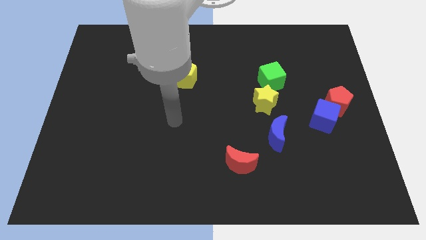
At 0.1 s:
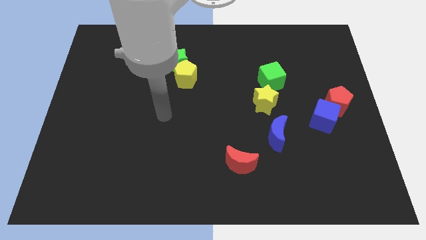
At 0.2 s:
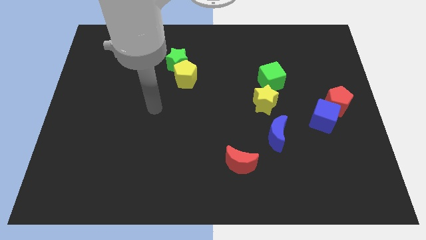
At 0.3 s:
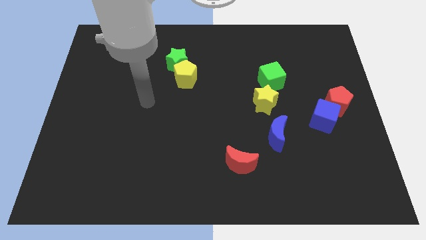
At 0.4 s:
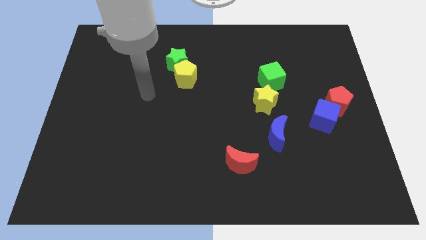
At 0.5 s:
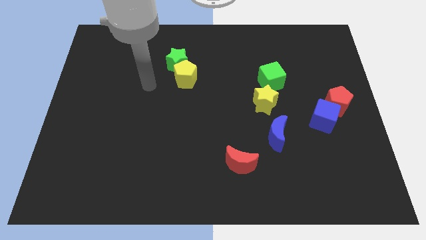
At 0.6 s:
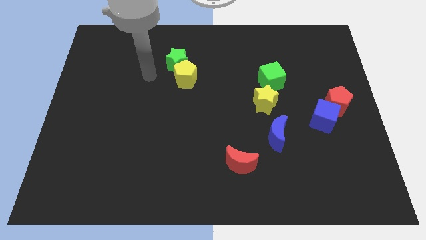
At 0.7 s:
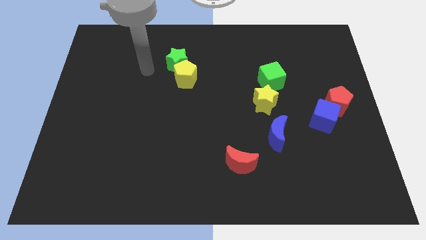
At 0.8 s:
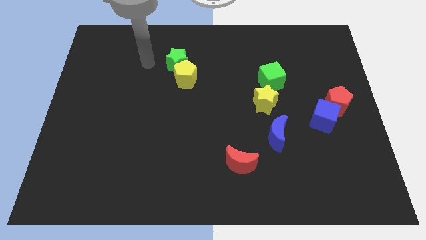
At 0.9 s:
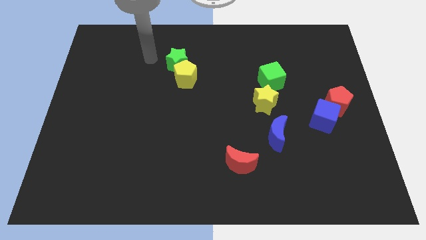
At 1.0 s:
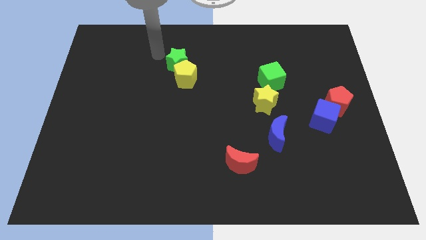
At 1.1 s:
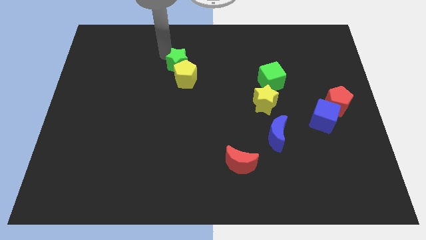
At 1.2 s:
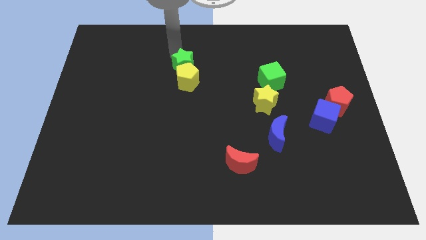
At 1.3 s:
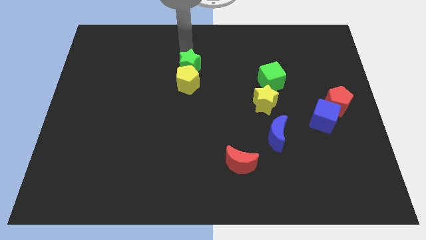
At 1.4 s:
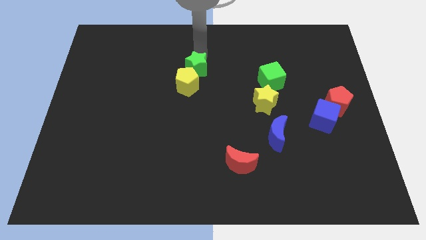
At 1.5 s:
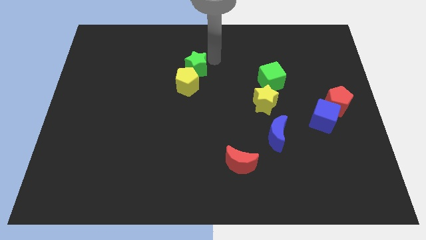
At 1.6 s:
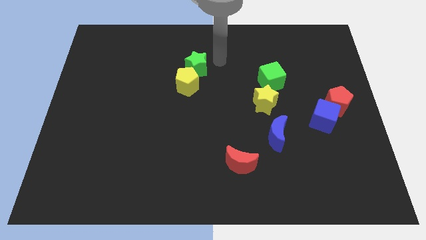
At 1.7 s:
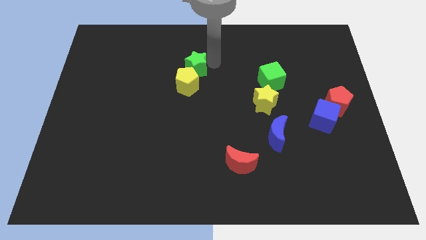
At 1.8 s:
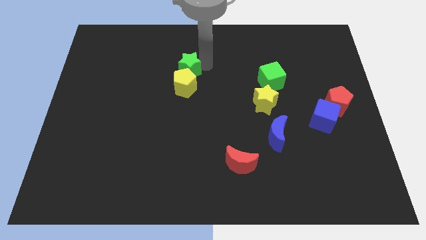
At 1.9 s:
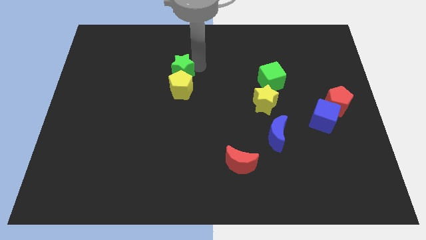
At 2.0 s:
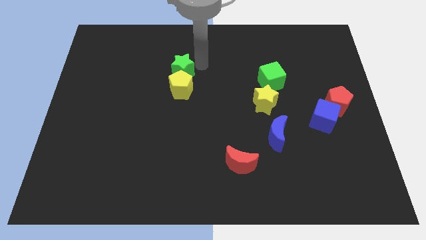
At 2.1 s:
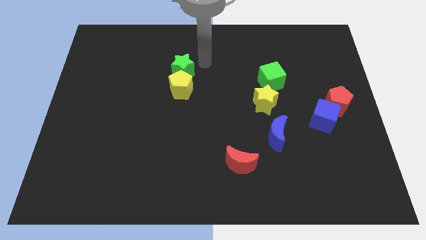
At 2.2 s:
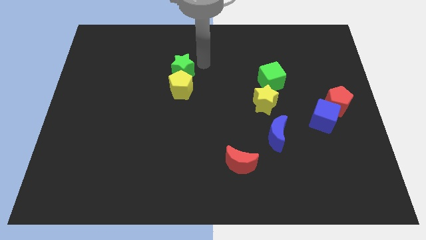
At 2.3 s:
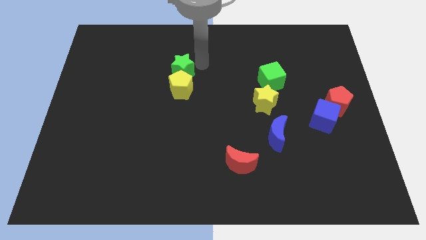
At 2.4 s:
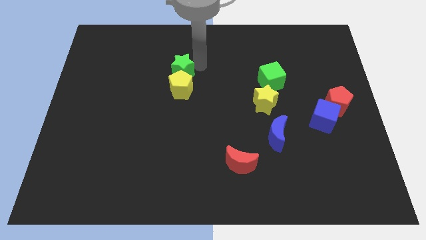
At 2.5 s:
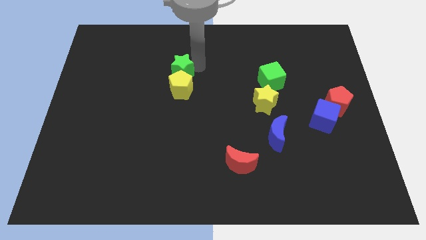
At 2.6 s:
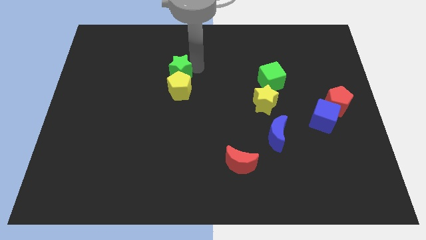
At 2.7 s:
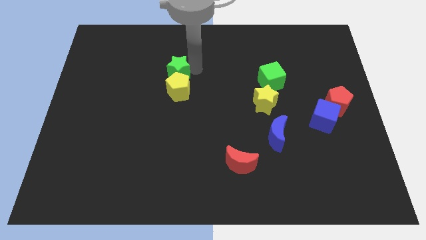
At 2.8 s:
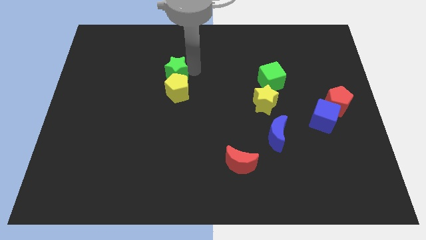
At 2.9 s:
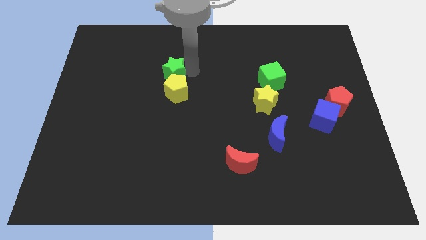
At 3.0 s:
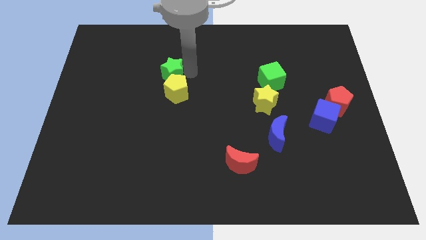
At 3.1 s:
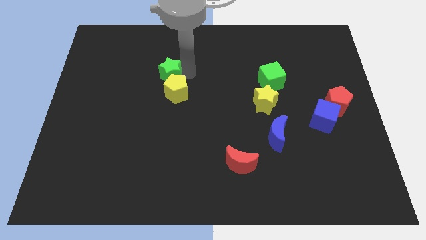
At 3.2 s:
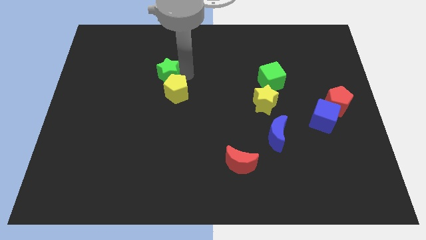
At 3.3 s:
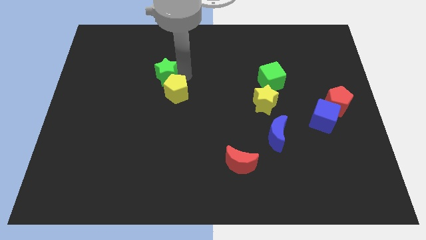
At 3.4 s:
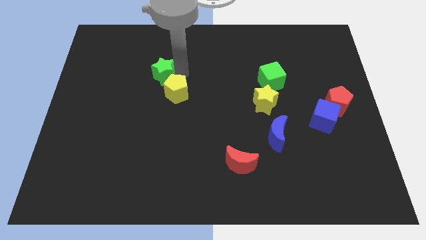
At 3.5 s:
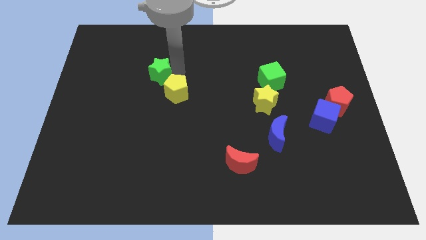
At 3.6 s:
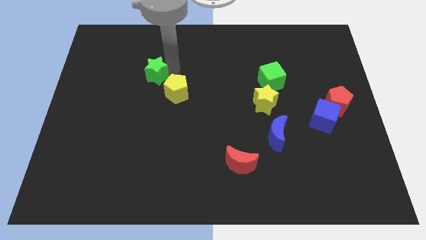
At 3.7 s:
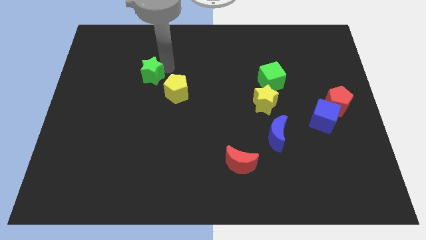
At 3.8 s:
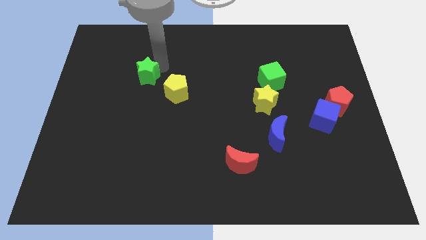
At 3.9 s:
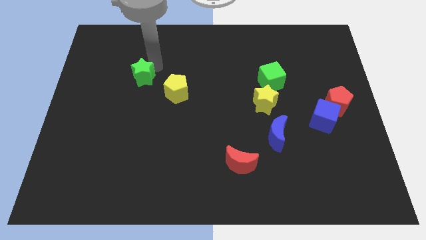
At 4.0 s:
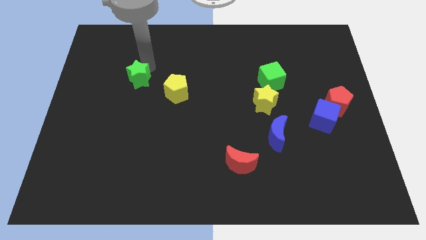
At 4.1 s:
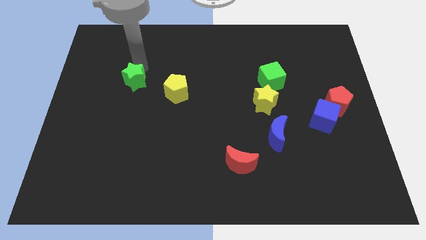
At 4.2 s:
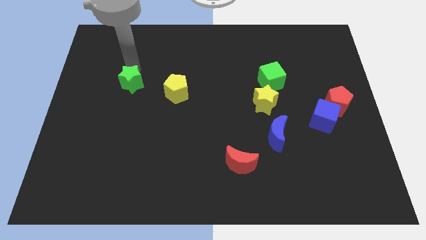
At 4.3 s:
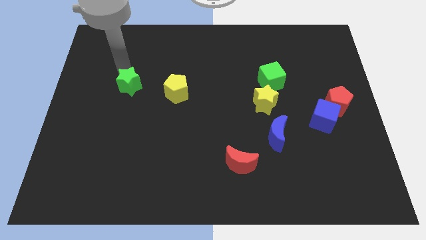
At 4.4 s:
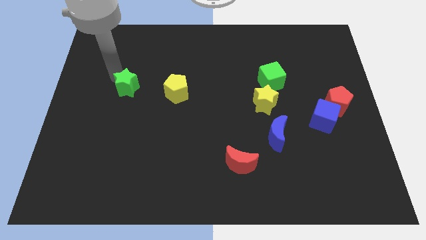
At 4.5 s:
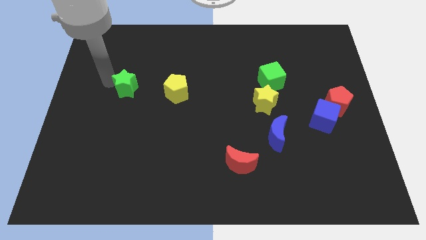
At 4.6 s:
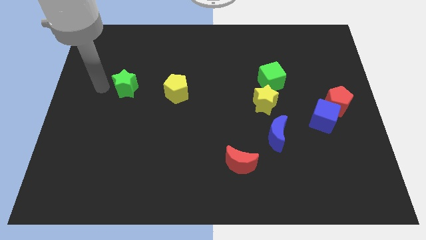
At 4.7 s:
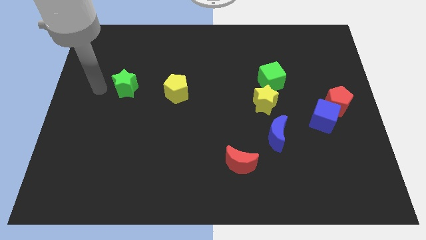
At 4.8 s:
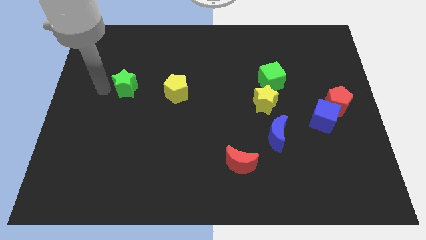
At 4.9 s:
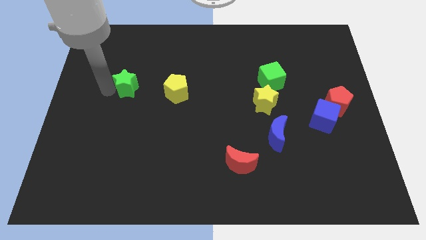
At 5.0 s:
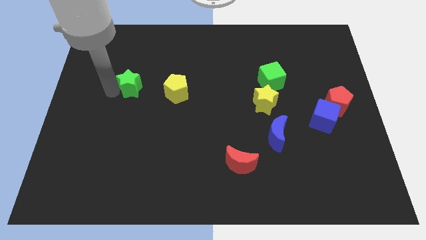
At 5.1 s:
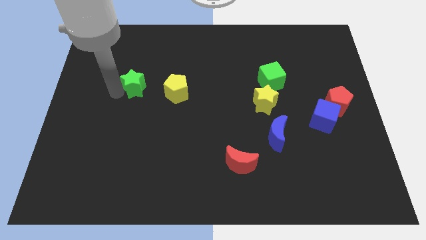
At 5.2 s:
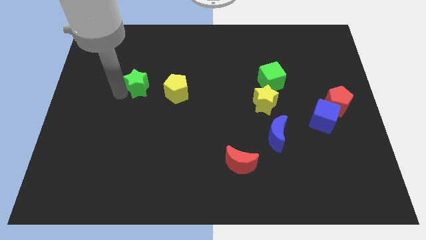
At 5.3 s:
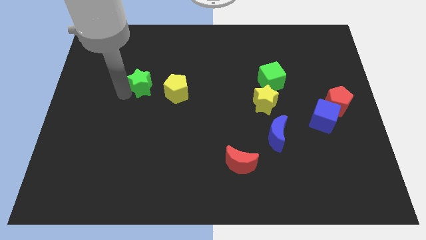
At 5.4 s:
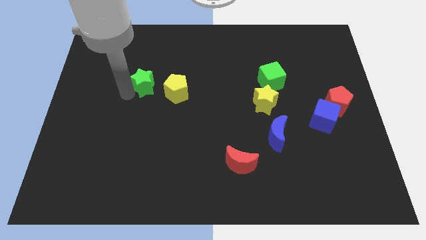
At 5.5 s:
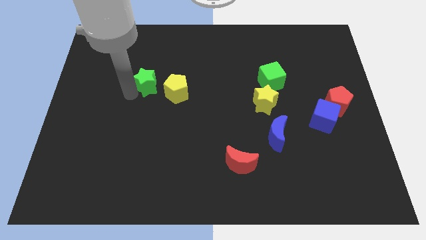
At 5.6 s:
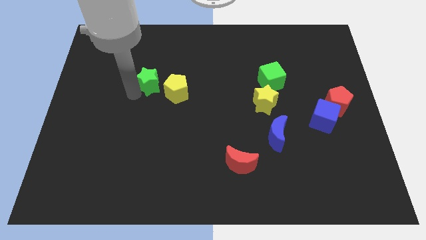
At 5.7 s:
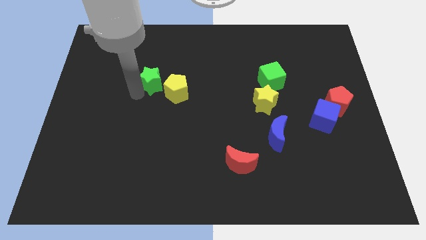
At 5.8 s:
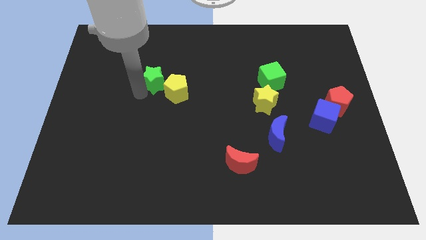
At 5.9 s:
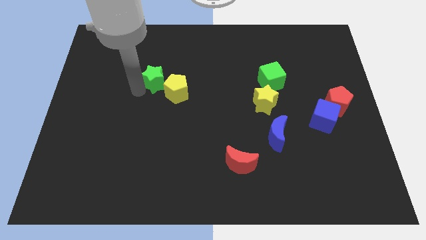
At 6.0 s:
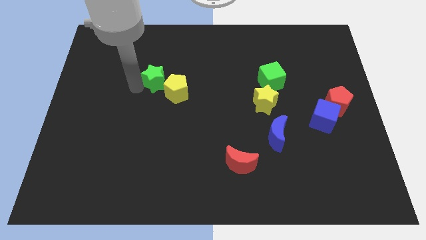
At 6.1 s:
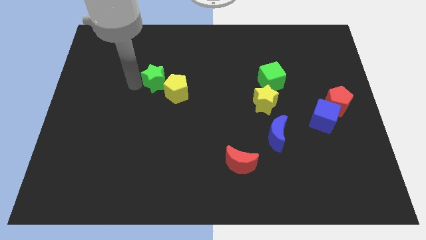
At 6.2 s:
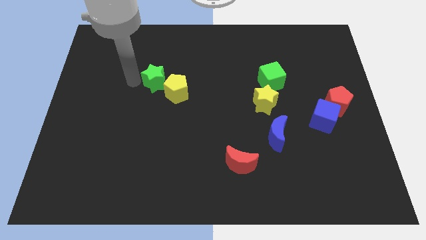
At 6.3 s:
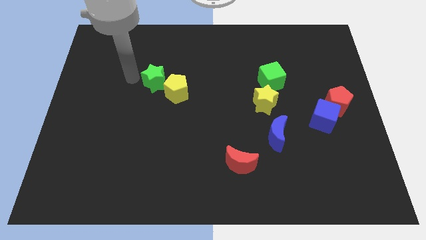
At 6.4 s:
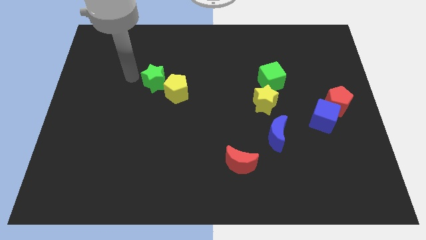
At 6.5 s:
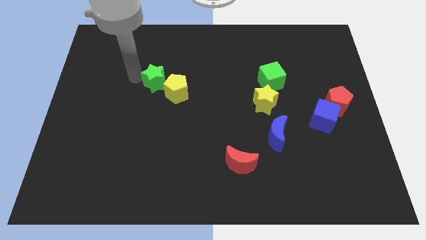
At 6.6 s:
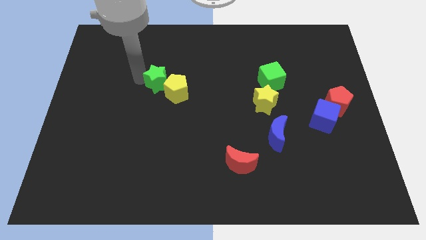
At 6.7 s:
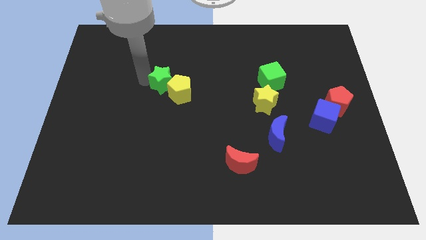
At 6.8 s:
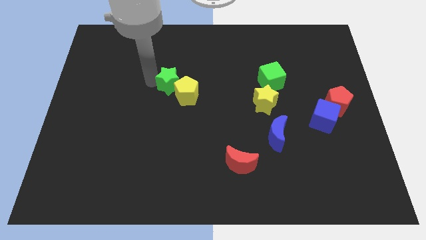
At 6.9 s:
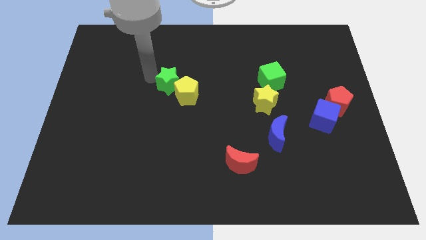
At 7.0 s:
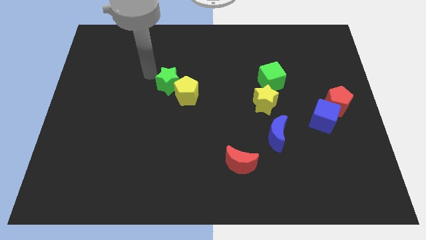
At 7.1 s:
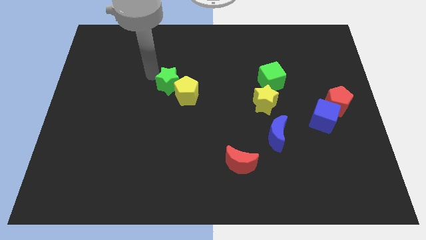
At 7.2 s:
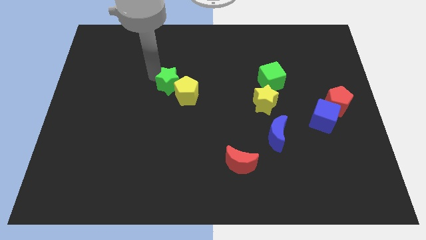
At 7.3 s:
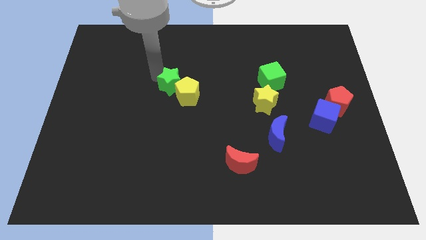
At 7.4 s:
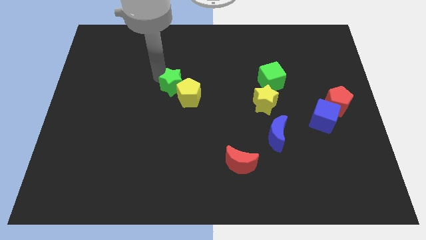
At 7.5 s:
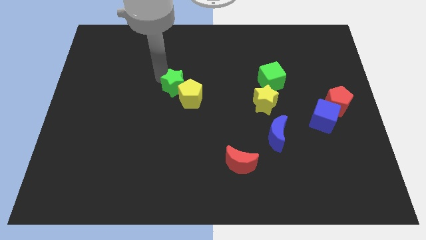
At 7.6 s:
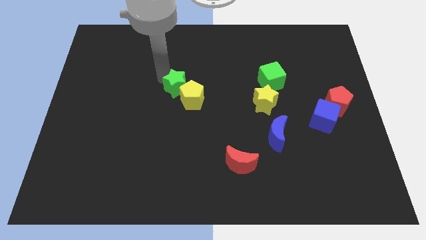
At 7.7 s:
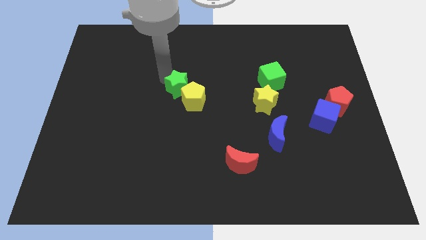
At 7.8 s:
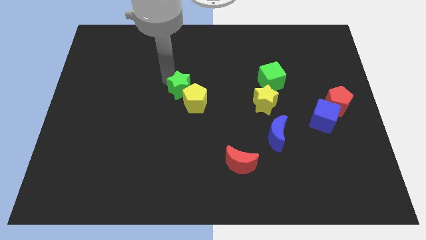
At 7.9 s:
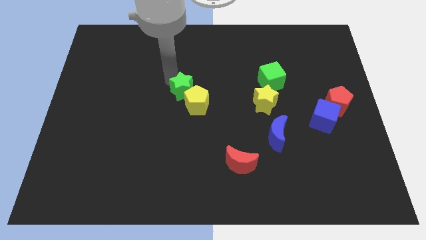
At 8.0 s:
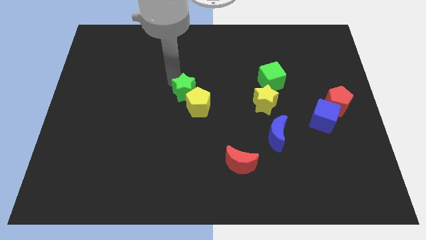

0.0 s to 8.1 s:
slightly move the green star downwards and to the right diagonally
